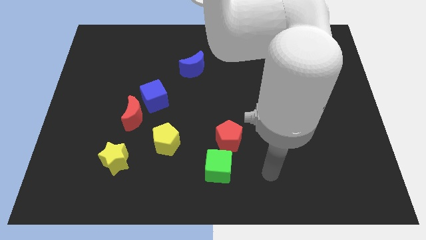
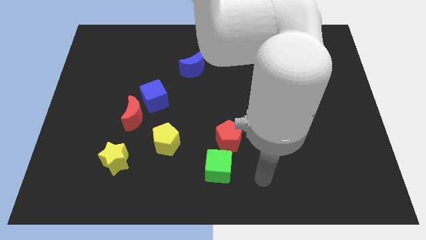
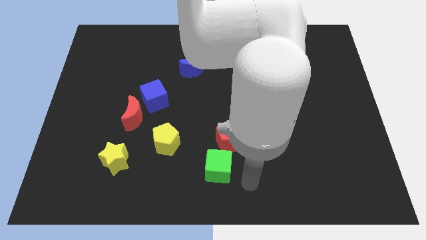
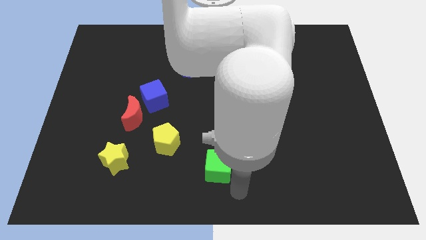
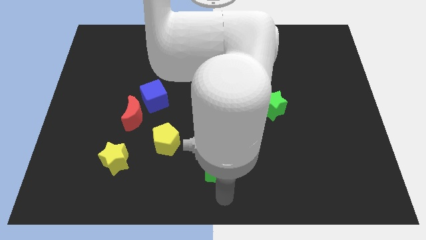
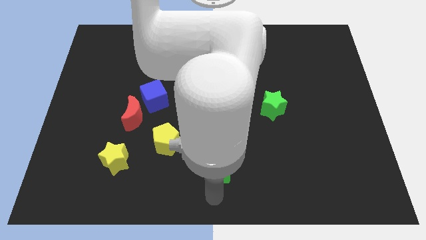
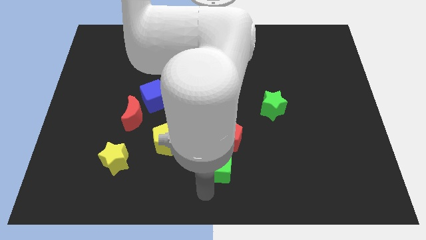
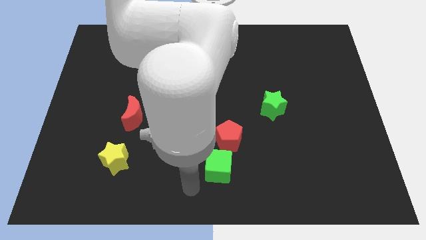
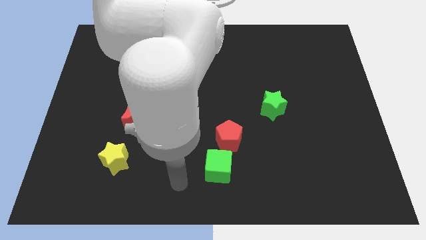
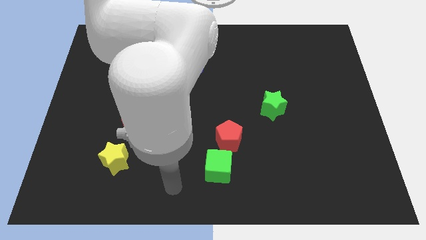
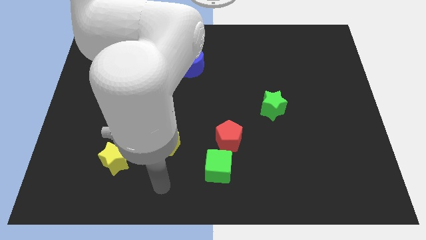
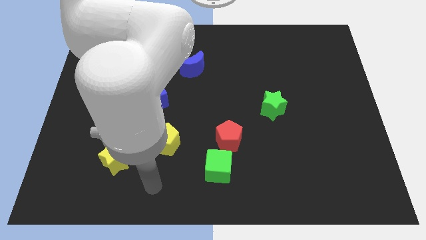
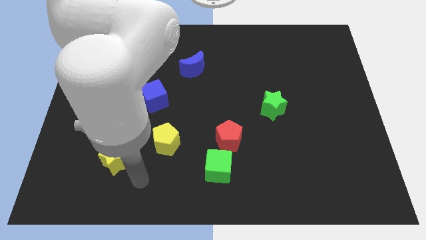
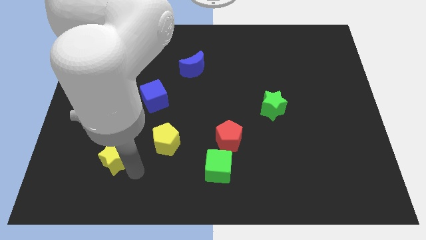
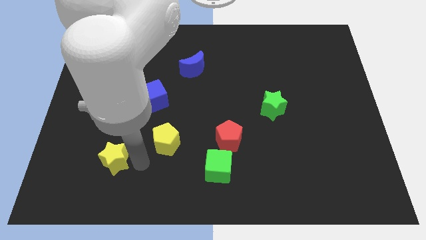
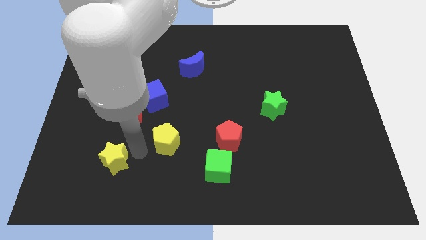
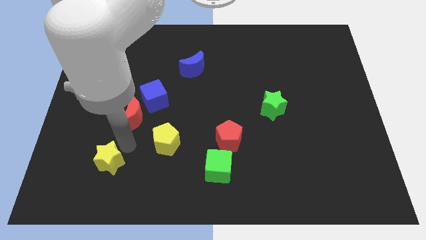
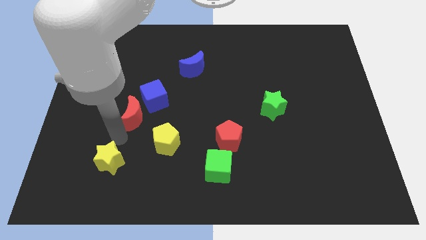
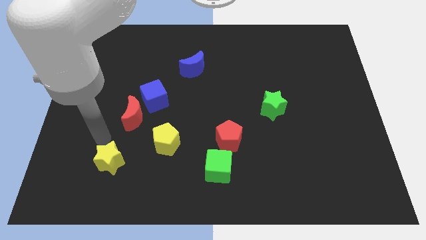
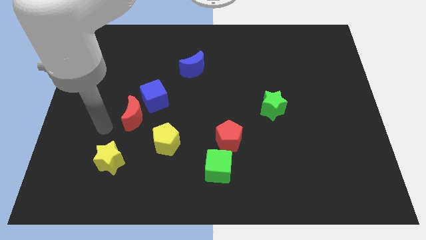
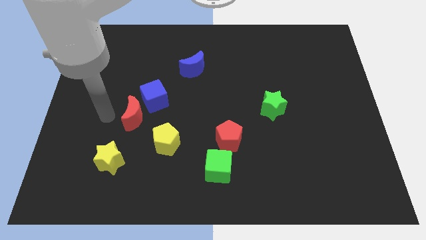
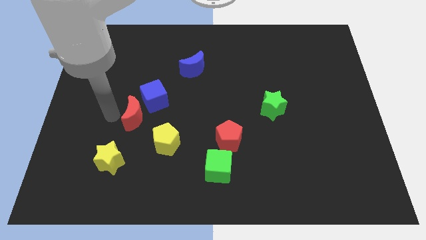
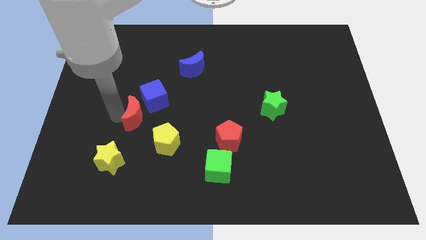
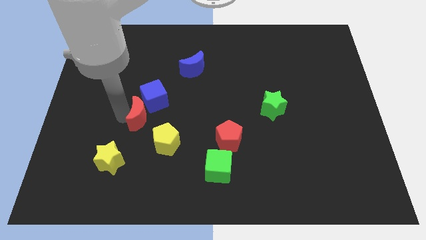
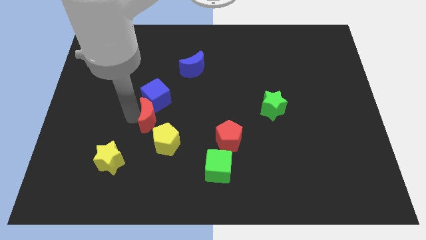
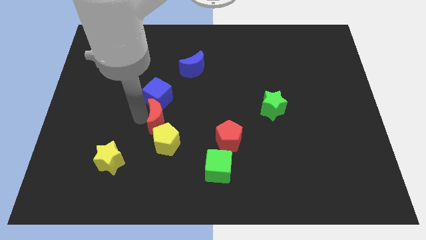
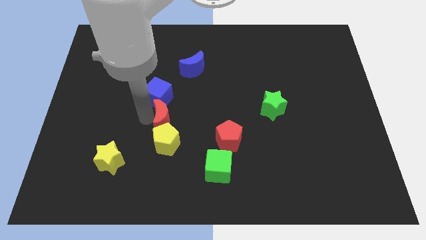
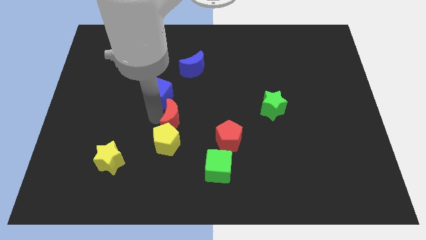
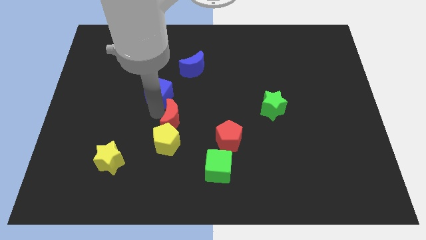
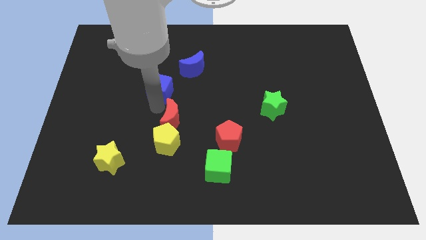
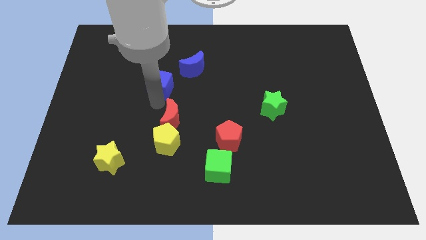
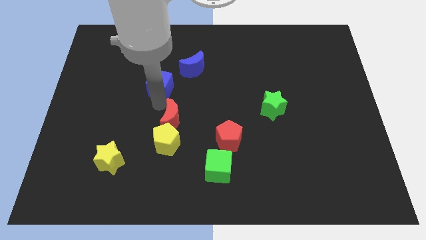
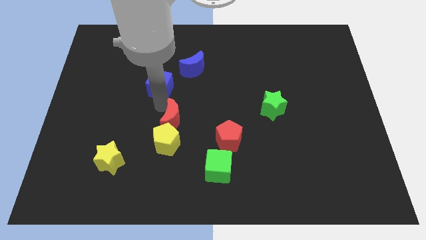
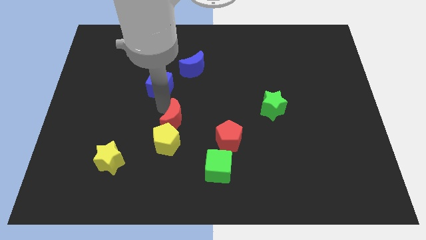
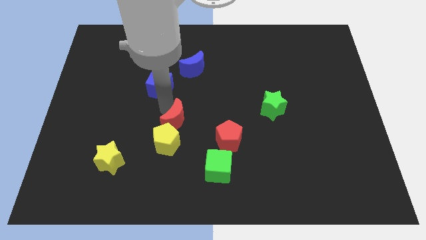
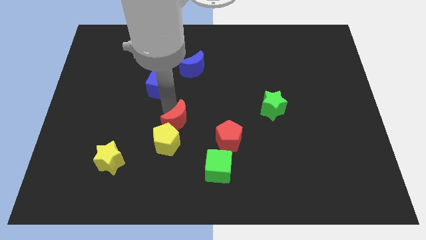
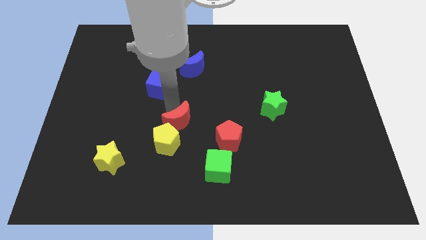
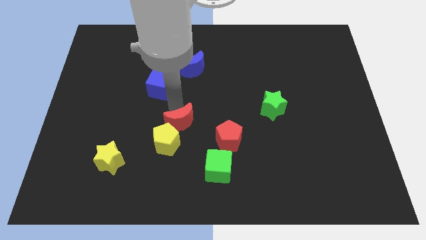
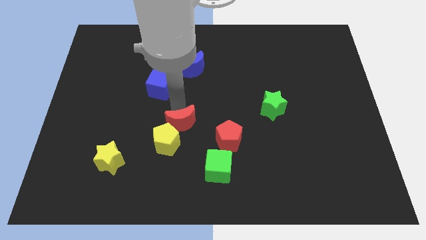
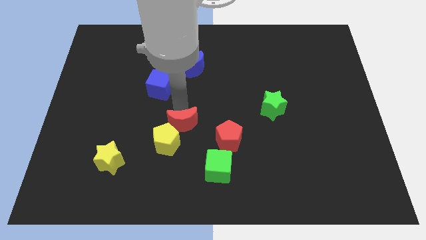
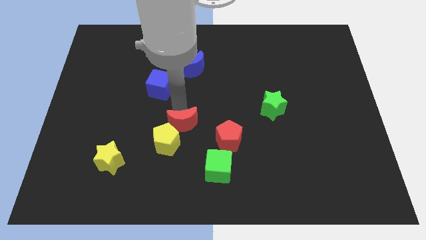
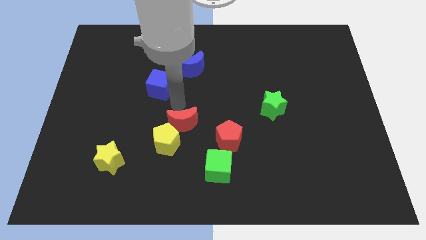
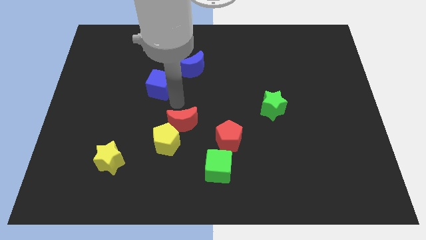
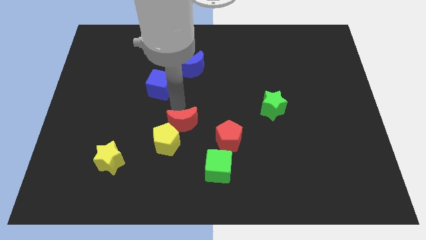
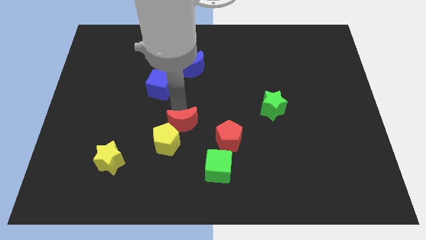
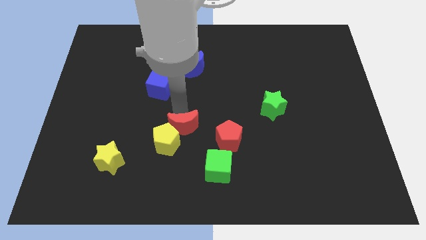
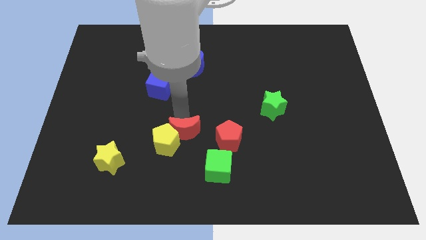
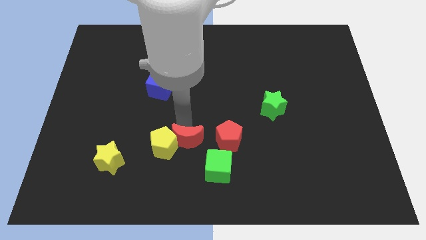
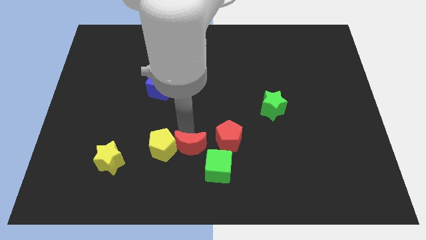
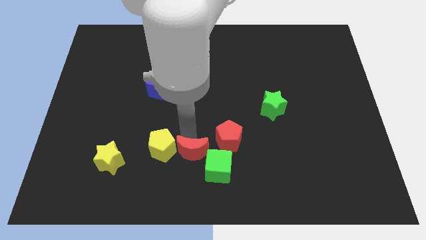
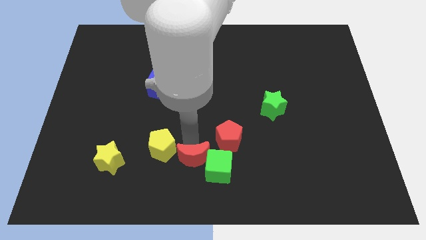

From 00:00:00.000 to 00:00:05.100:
move the red moon to the bottom side
